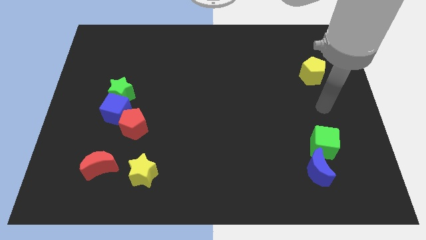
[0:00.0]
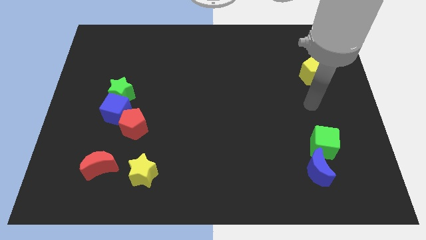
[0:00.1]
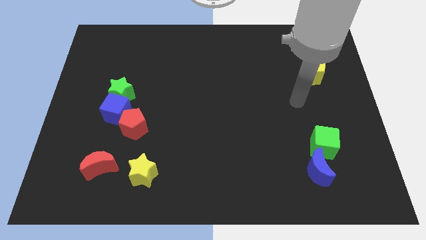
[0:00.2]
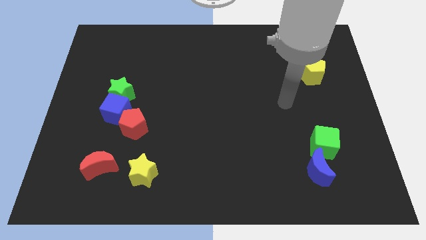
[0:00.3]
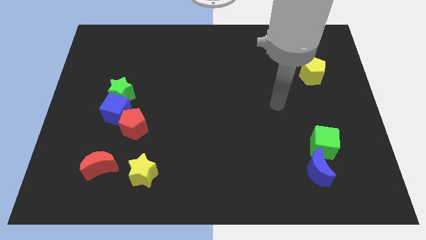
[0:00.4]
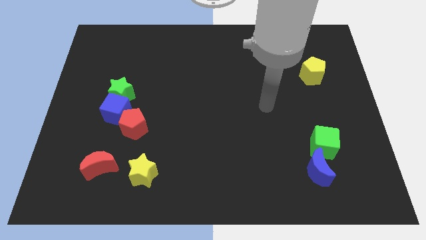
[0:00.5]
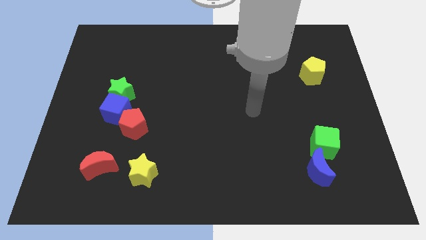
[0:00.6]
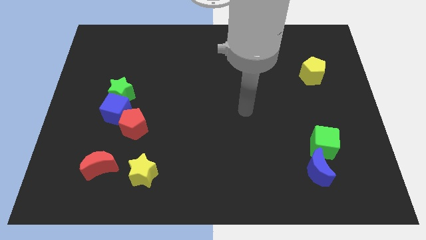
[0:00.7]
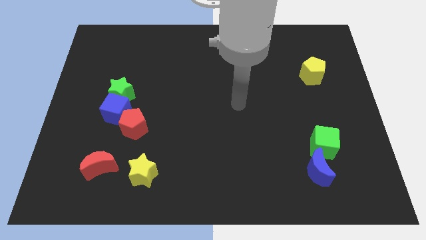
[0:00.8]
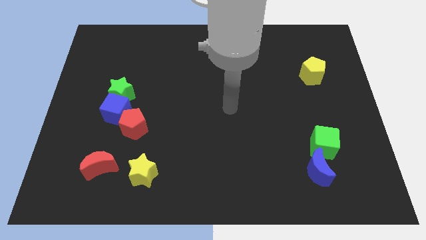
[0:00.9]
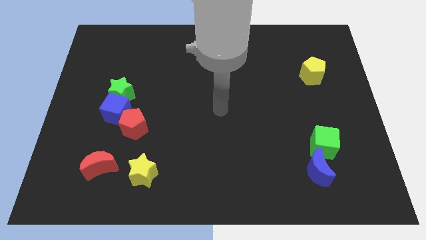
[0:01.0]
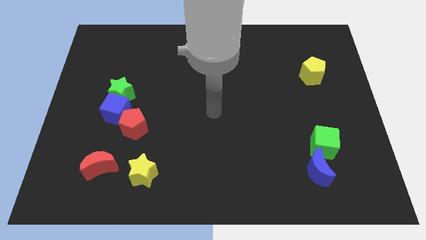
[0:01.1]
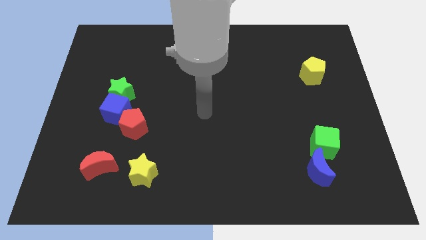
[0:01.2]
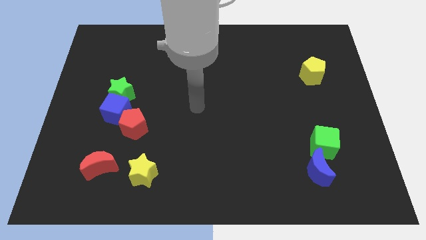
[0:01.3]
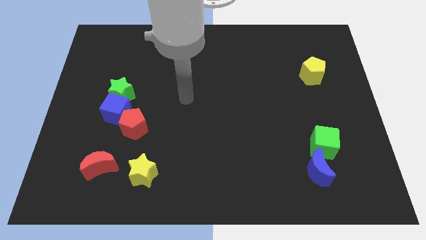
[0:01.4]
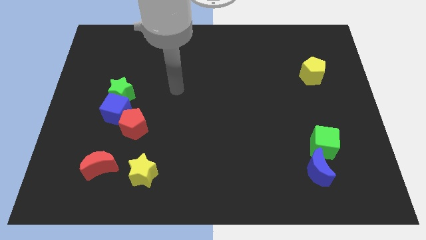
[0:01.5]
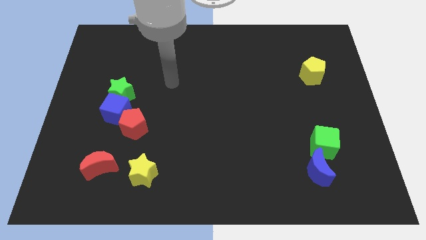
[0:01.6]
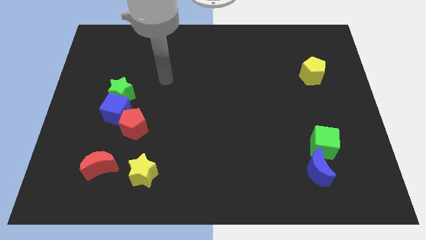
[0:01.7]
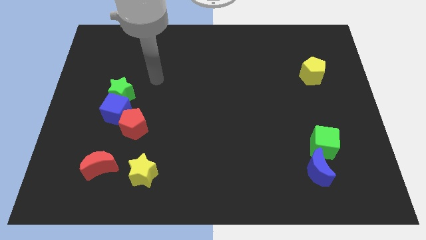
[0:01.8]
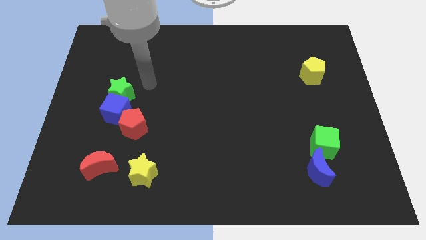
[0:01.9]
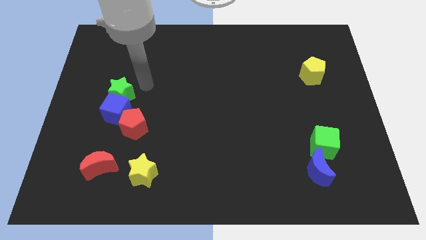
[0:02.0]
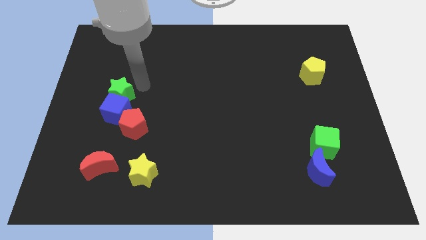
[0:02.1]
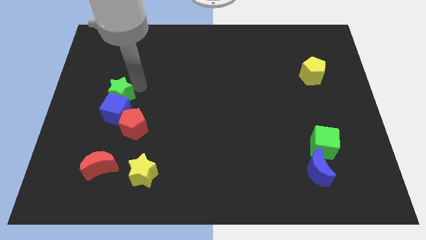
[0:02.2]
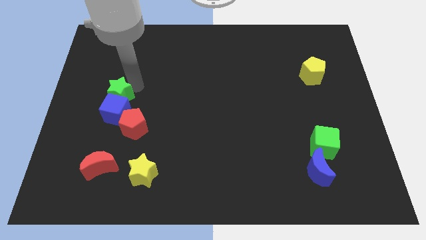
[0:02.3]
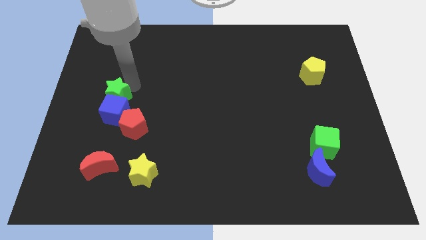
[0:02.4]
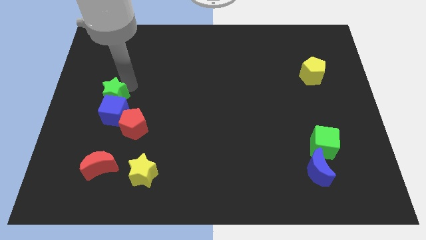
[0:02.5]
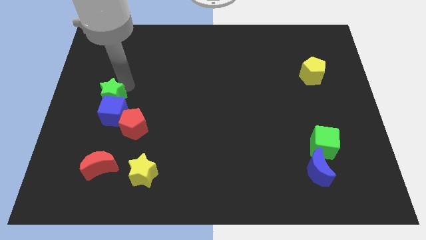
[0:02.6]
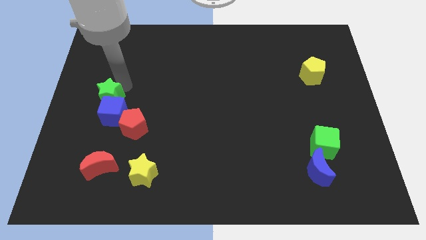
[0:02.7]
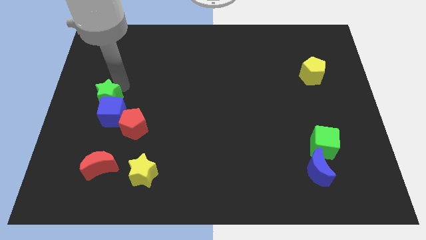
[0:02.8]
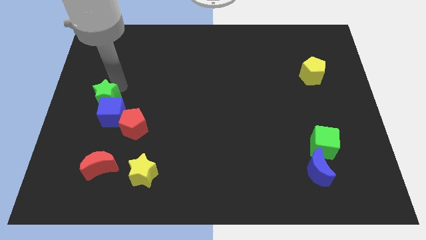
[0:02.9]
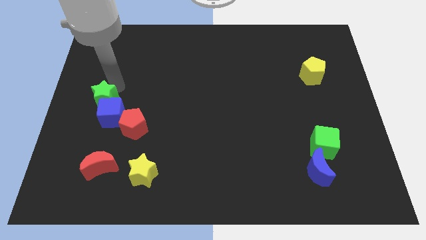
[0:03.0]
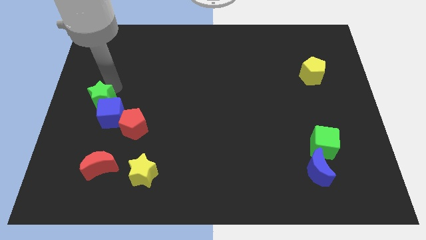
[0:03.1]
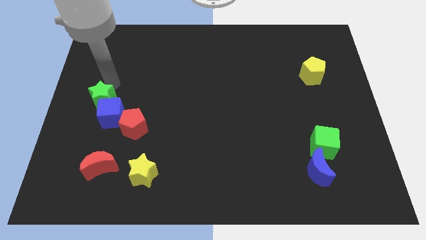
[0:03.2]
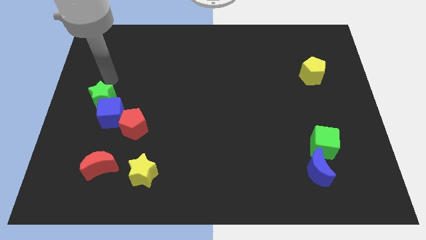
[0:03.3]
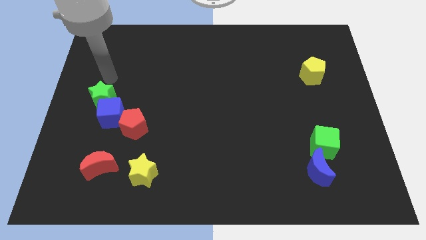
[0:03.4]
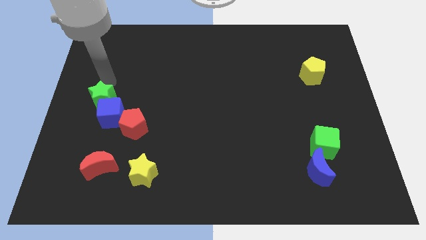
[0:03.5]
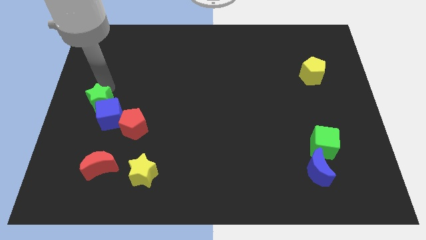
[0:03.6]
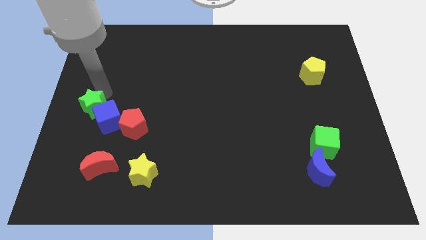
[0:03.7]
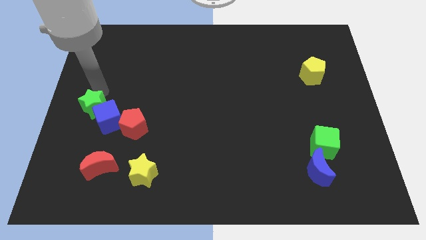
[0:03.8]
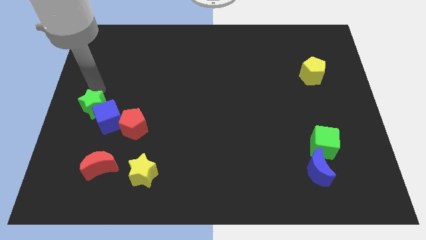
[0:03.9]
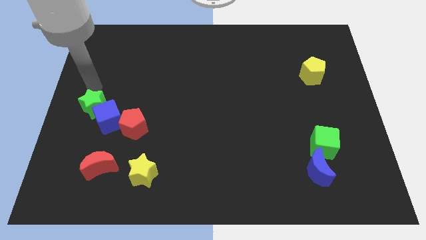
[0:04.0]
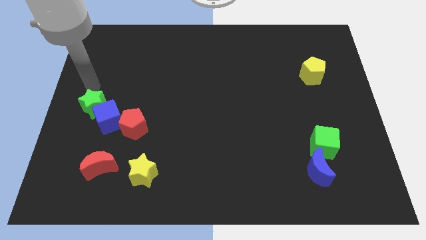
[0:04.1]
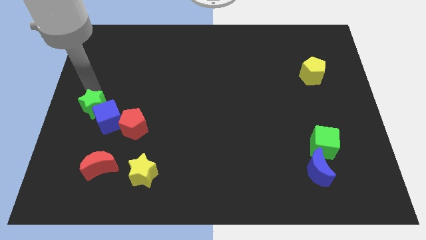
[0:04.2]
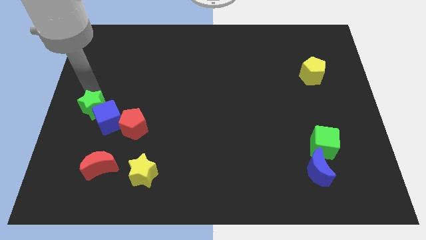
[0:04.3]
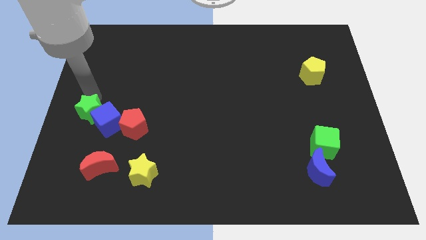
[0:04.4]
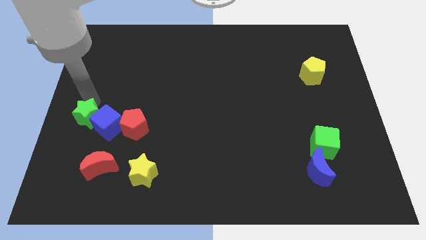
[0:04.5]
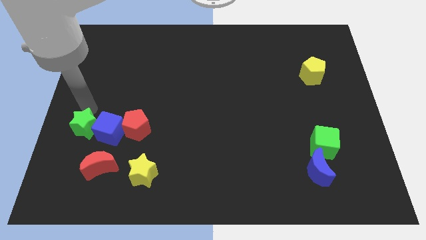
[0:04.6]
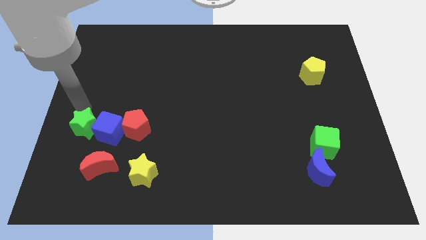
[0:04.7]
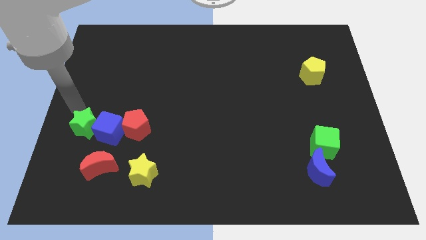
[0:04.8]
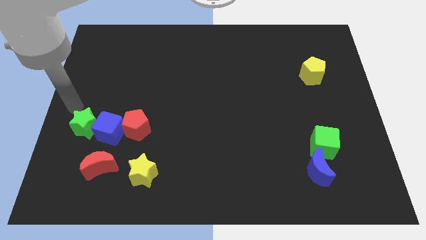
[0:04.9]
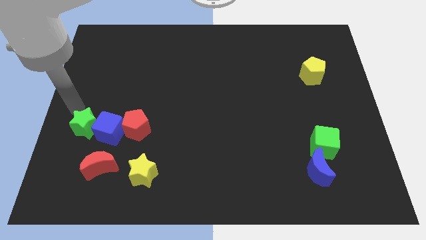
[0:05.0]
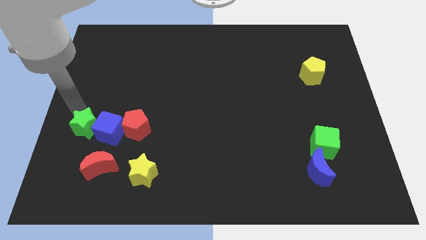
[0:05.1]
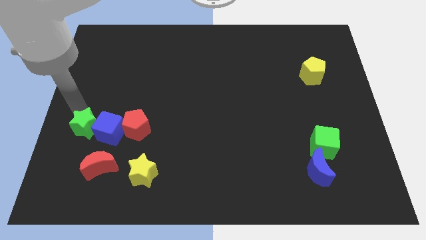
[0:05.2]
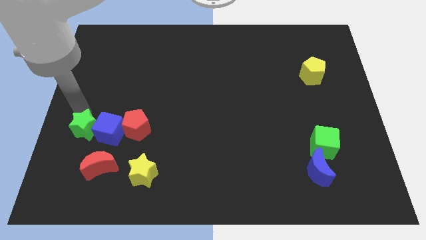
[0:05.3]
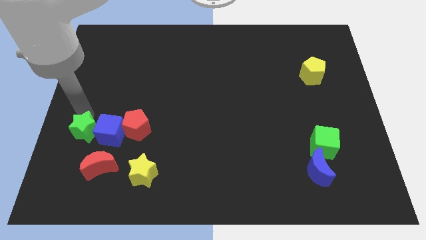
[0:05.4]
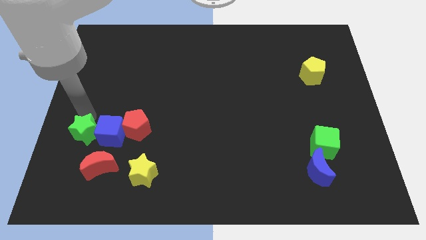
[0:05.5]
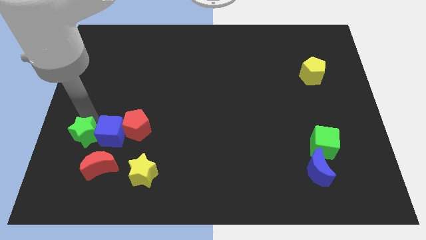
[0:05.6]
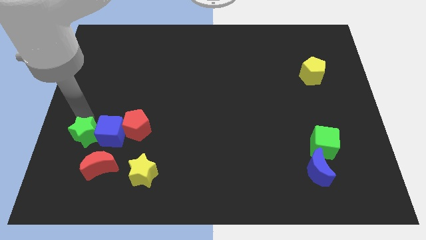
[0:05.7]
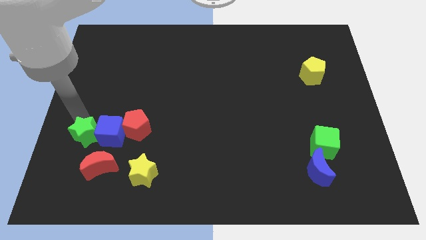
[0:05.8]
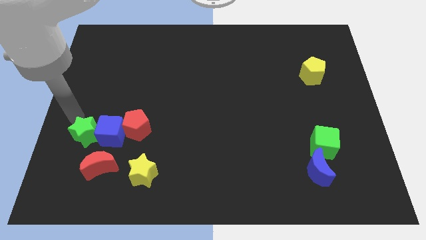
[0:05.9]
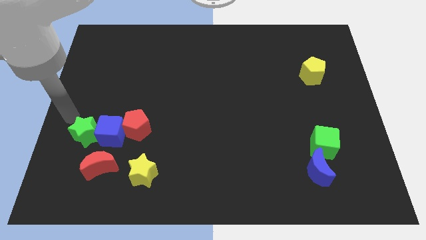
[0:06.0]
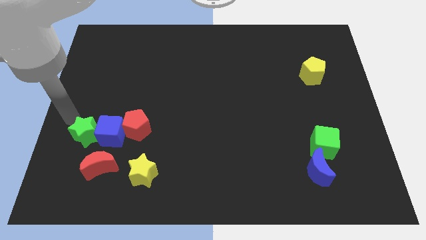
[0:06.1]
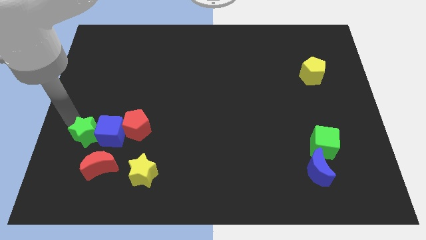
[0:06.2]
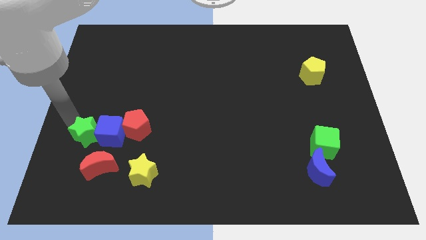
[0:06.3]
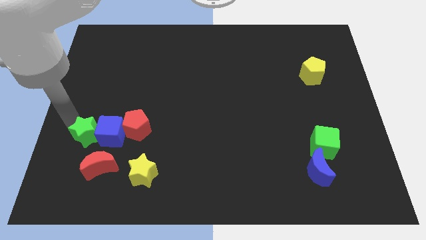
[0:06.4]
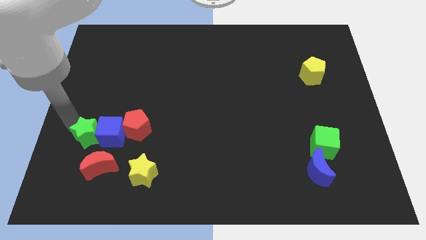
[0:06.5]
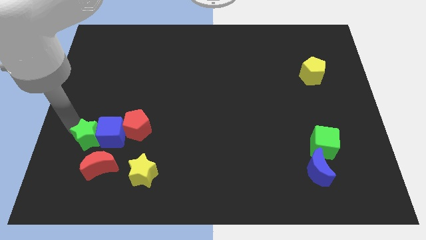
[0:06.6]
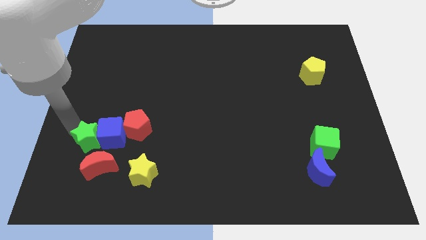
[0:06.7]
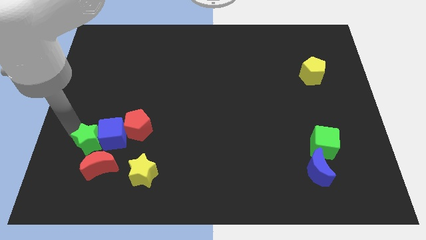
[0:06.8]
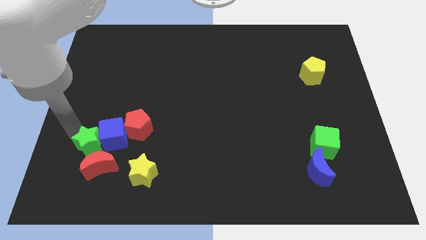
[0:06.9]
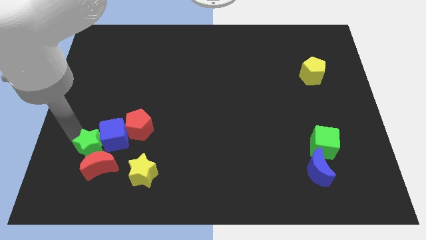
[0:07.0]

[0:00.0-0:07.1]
move the green star towards the red moon

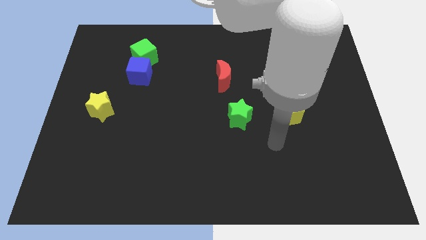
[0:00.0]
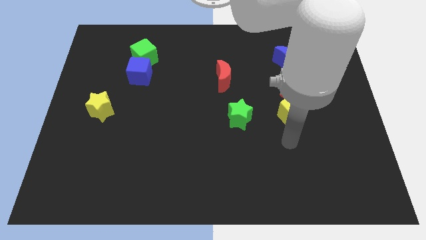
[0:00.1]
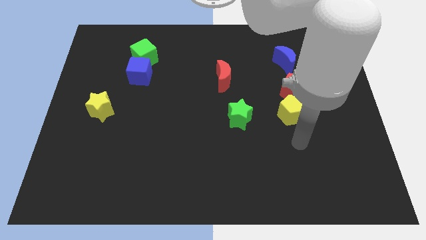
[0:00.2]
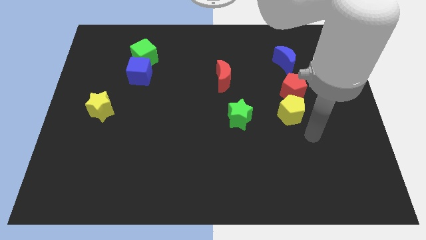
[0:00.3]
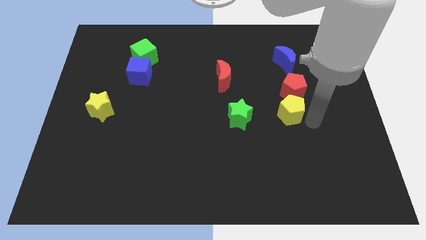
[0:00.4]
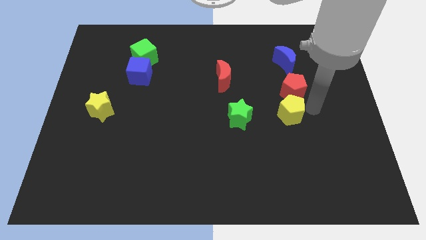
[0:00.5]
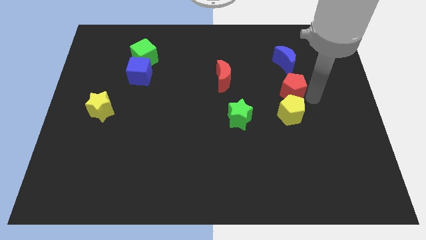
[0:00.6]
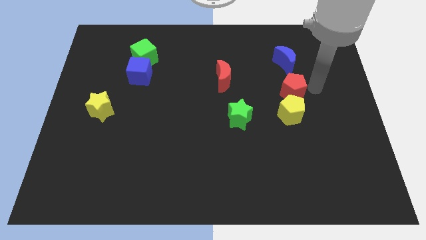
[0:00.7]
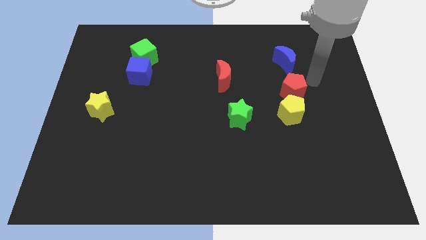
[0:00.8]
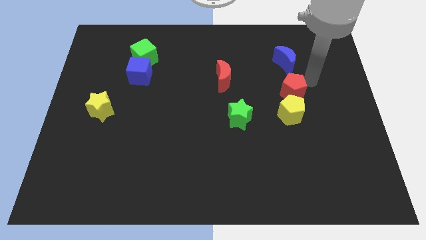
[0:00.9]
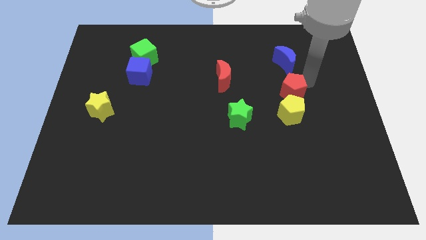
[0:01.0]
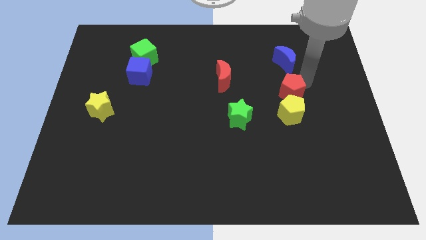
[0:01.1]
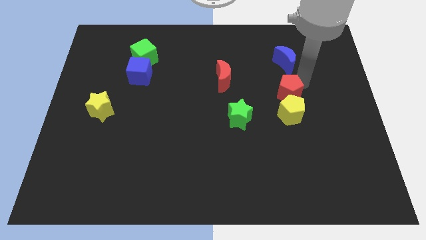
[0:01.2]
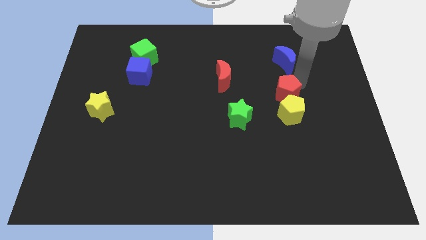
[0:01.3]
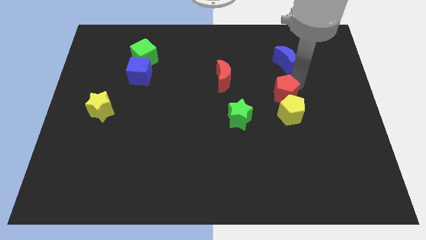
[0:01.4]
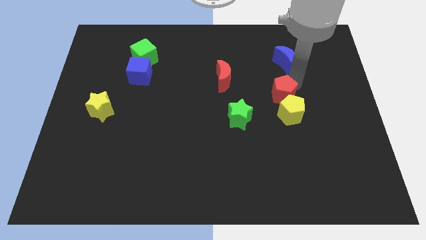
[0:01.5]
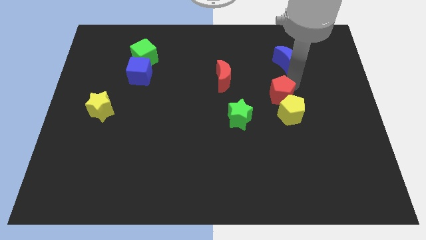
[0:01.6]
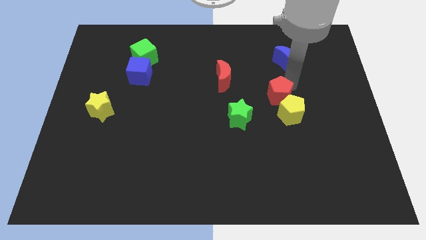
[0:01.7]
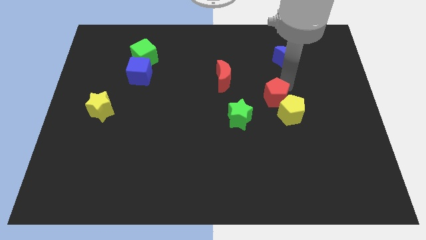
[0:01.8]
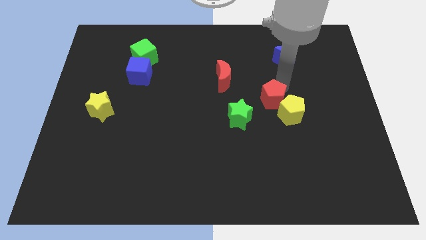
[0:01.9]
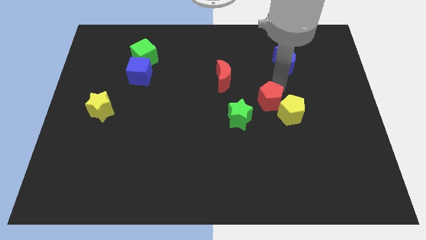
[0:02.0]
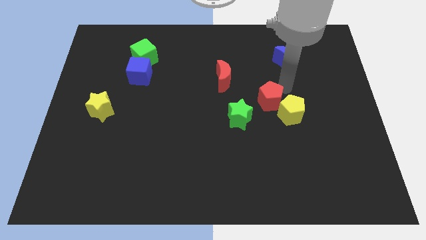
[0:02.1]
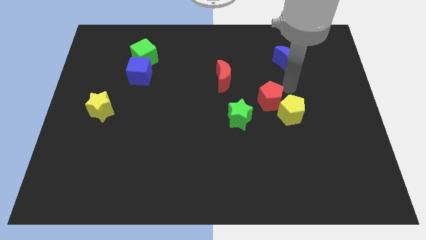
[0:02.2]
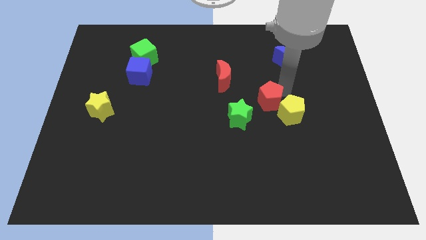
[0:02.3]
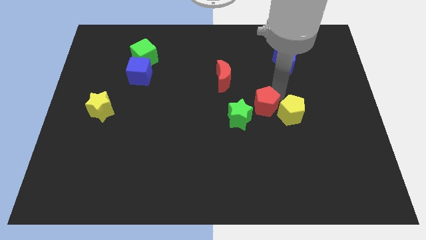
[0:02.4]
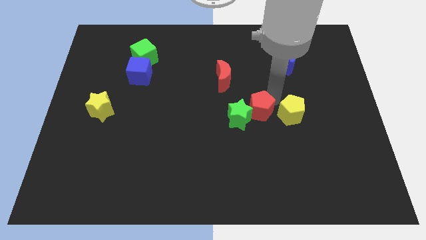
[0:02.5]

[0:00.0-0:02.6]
move the red pentagon next to the green star
